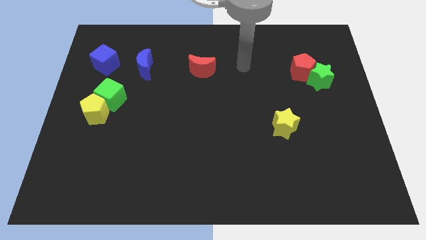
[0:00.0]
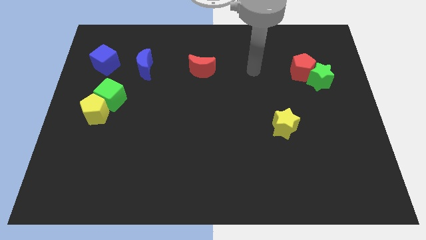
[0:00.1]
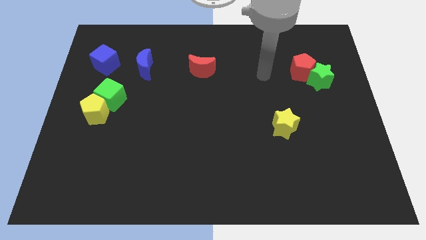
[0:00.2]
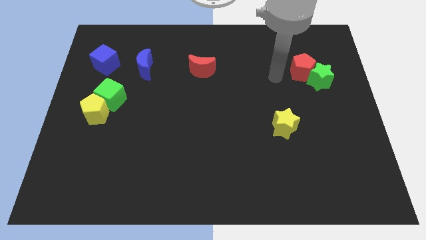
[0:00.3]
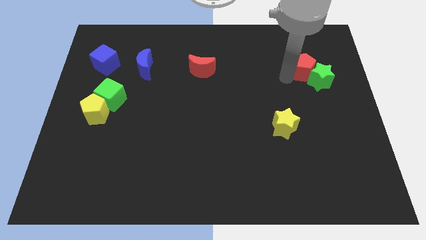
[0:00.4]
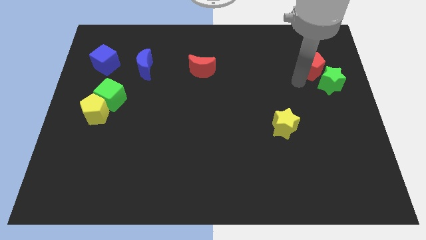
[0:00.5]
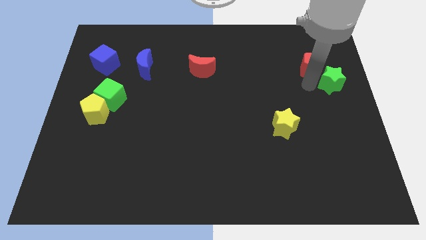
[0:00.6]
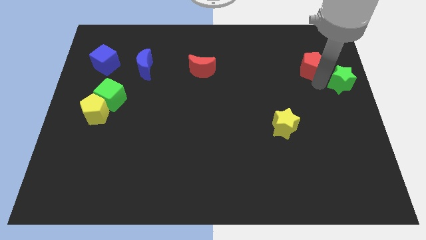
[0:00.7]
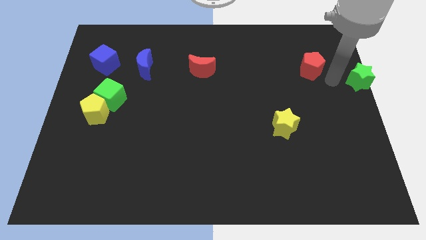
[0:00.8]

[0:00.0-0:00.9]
separate the red pentagon from the green star

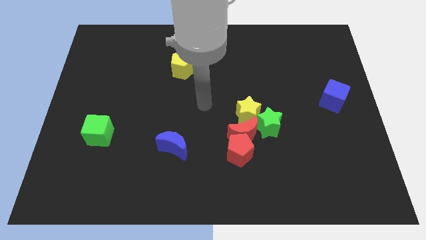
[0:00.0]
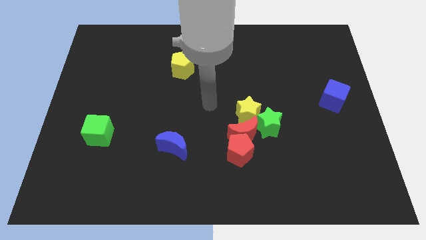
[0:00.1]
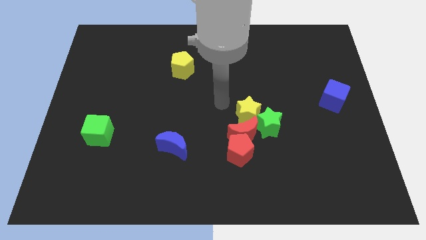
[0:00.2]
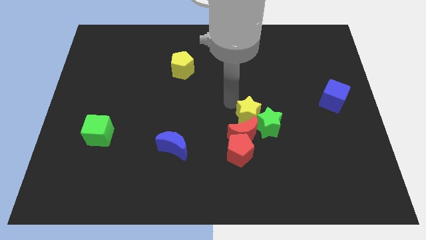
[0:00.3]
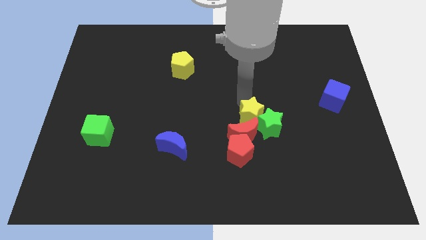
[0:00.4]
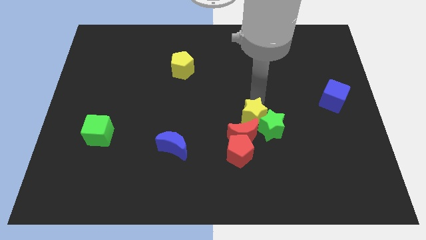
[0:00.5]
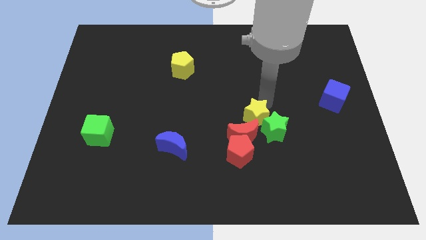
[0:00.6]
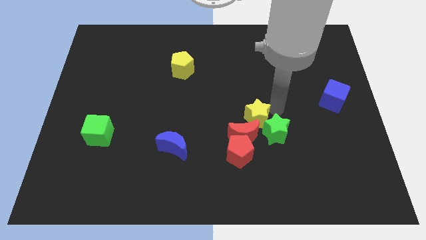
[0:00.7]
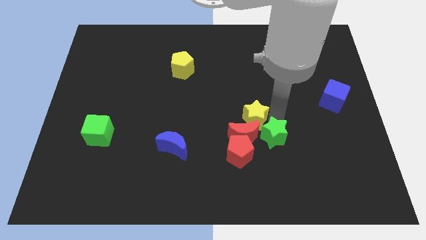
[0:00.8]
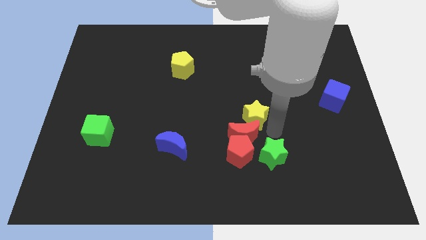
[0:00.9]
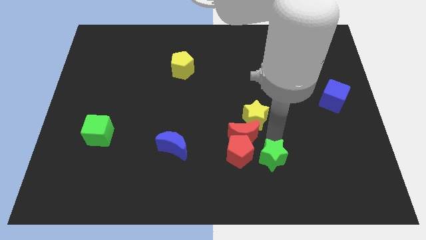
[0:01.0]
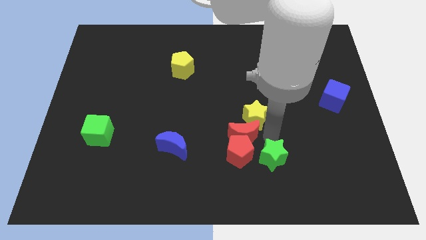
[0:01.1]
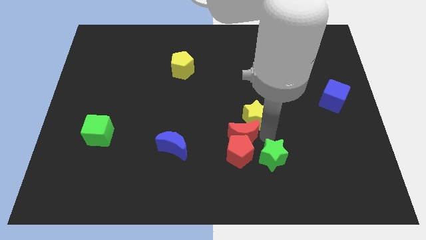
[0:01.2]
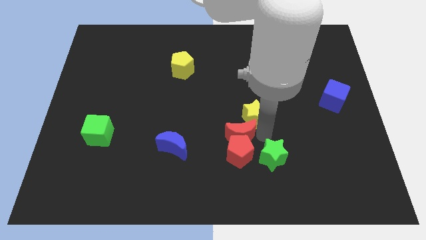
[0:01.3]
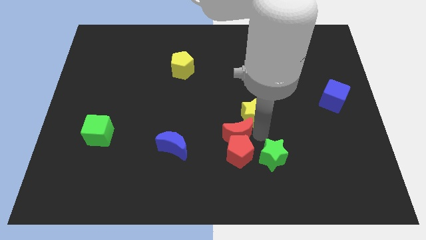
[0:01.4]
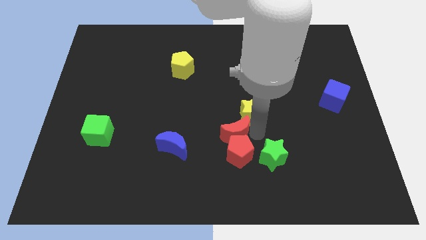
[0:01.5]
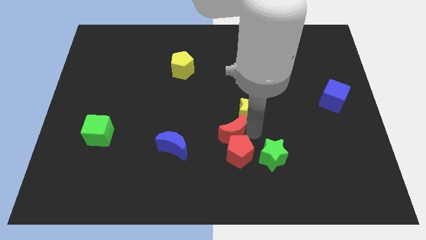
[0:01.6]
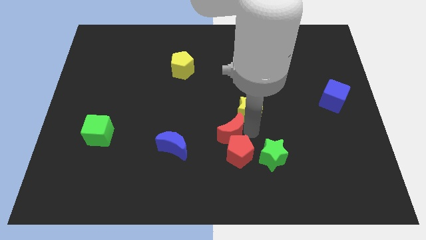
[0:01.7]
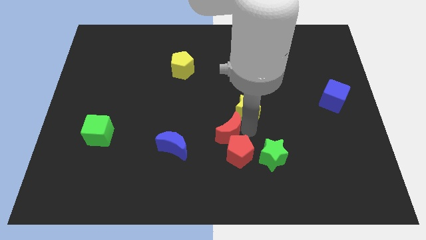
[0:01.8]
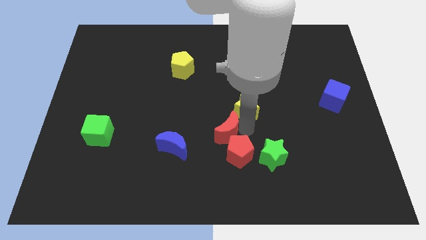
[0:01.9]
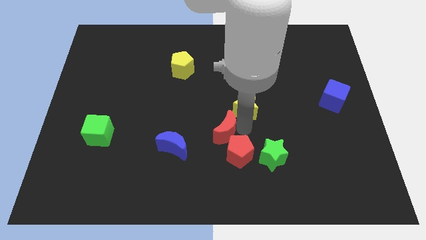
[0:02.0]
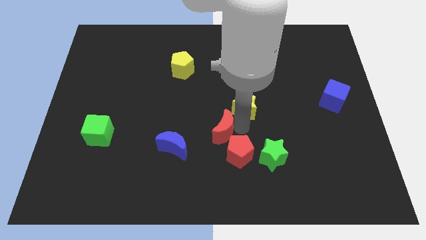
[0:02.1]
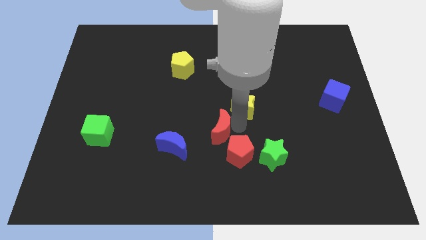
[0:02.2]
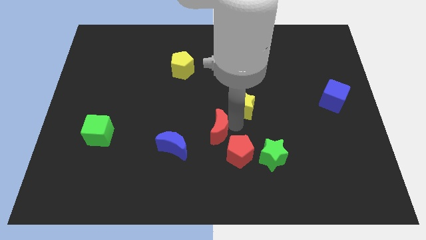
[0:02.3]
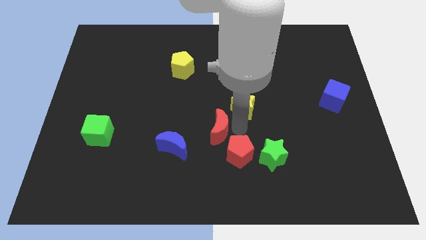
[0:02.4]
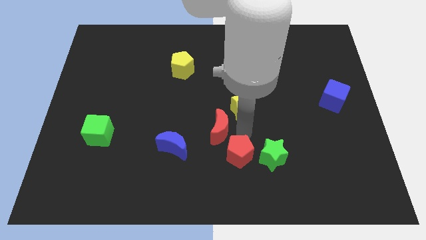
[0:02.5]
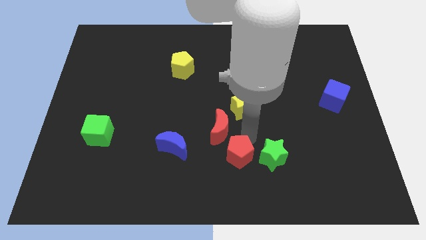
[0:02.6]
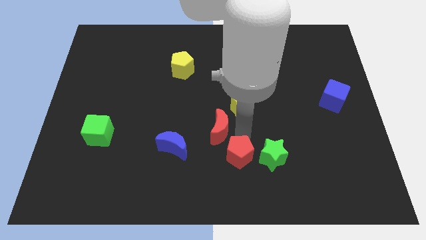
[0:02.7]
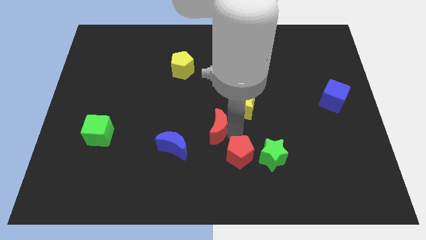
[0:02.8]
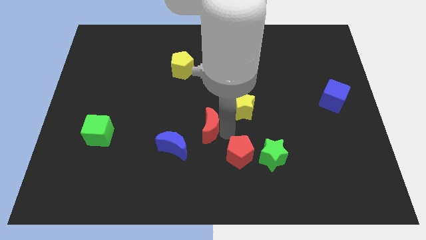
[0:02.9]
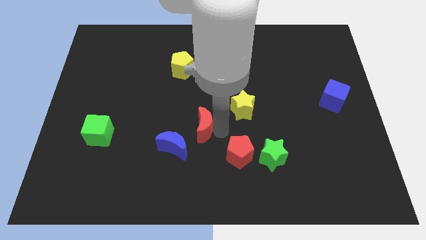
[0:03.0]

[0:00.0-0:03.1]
separate the red moon from the red pentagon, yellow star, and green star

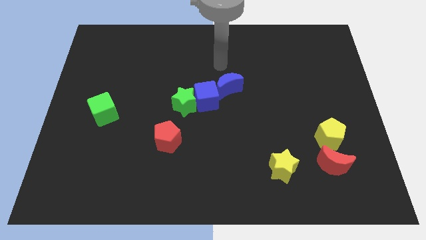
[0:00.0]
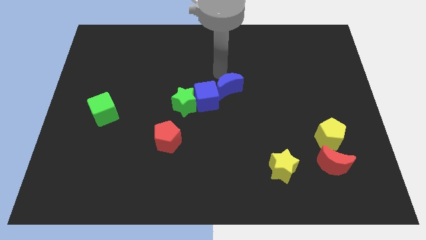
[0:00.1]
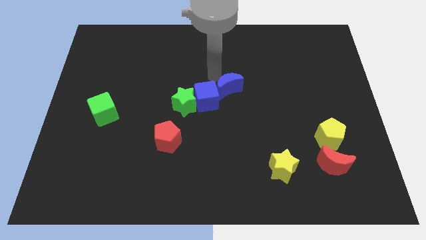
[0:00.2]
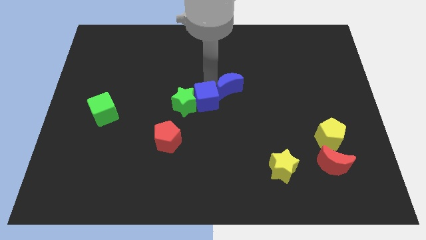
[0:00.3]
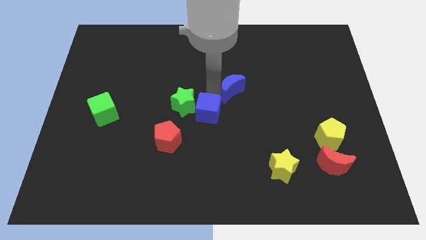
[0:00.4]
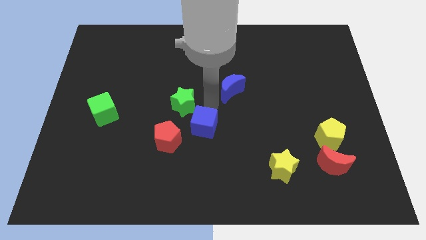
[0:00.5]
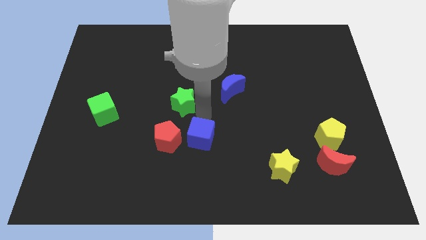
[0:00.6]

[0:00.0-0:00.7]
separate the green star from the blue cube

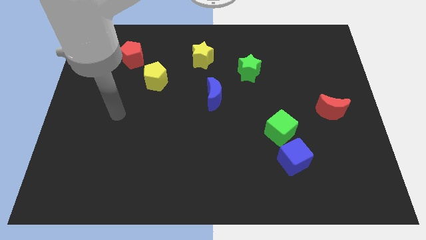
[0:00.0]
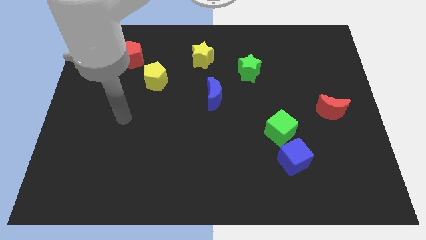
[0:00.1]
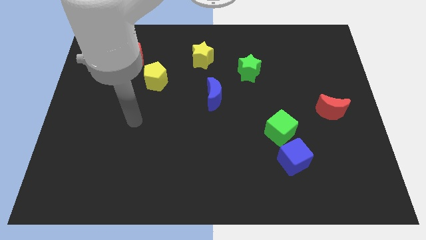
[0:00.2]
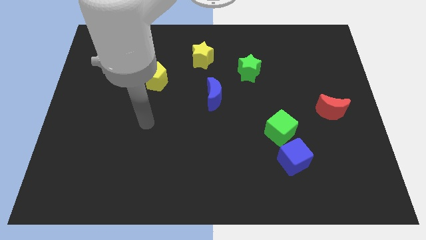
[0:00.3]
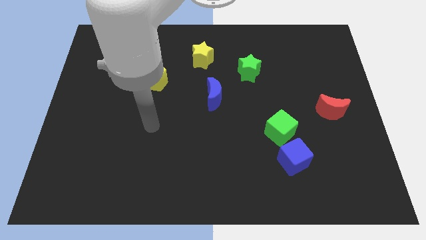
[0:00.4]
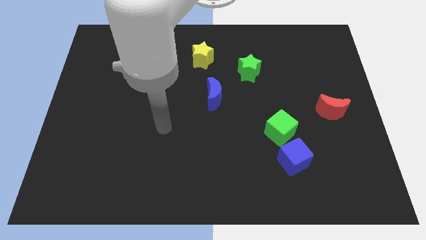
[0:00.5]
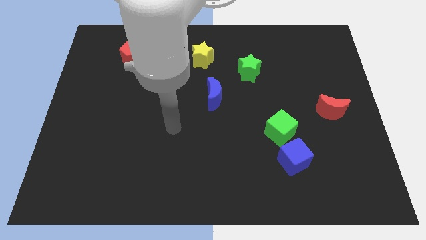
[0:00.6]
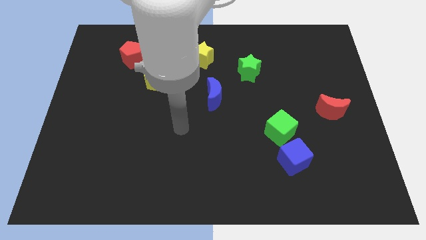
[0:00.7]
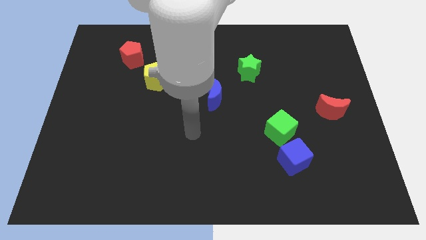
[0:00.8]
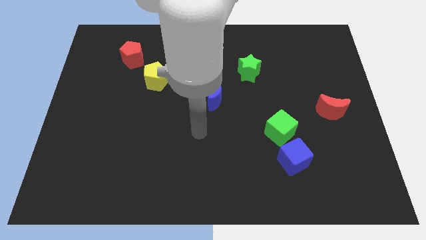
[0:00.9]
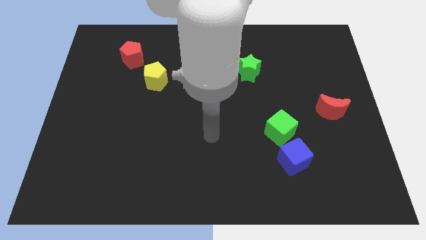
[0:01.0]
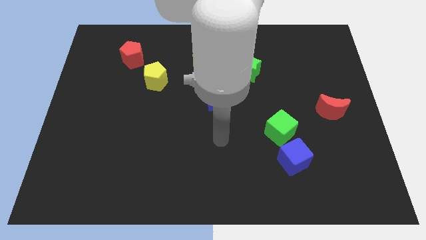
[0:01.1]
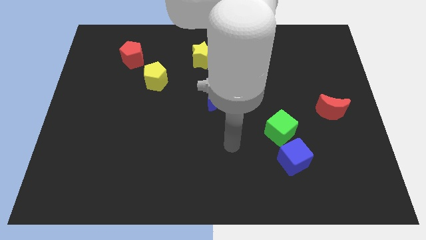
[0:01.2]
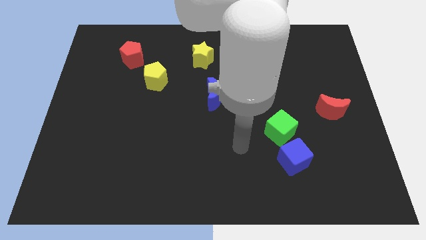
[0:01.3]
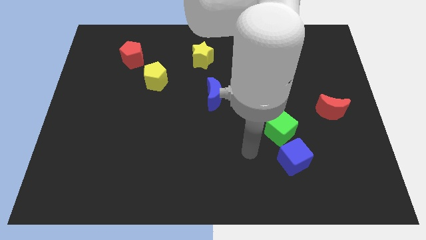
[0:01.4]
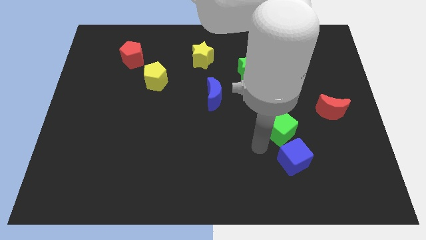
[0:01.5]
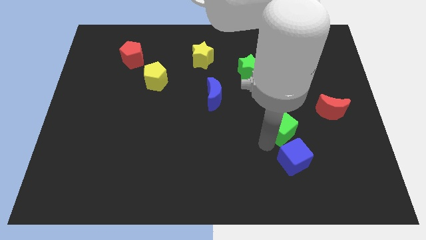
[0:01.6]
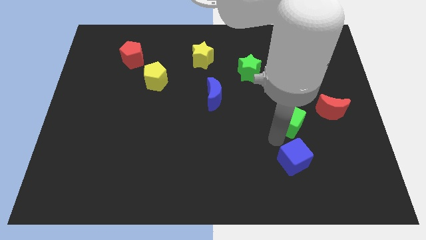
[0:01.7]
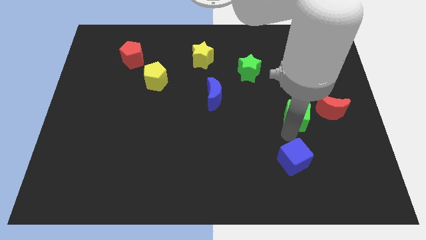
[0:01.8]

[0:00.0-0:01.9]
separate the blue cube from the green cube

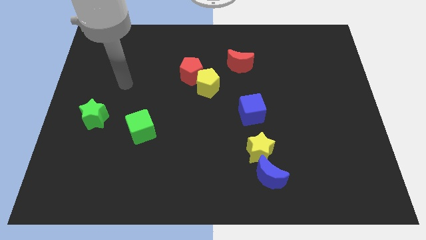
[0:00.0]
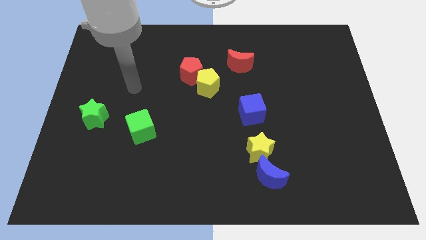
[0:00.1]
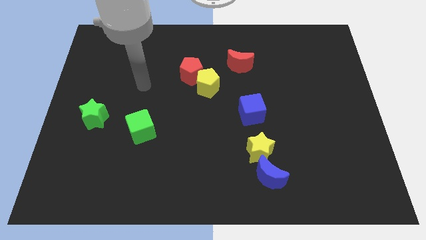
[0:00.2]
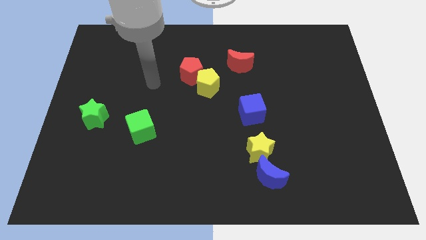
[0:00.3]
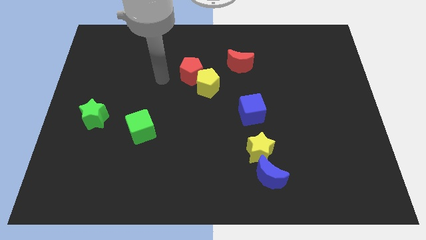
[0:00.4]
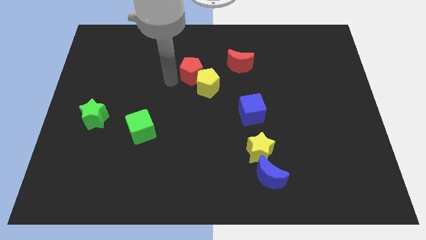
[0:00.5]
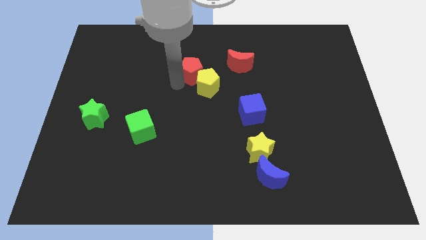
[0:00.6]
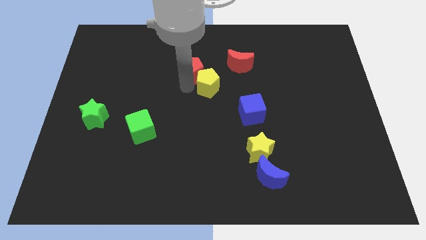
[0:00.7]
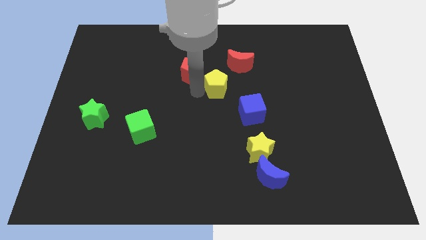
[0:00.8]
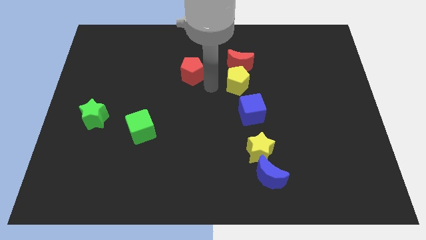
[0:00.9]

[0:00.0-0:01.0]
move the red pentagon away from the yellow pentagon

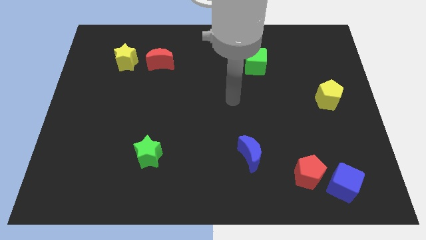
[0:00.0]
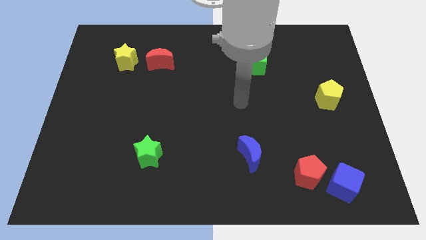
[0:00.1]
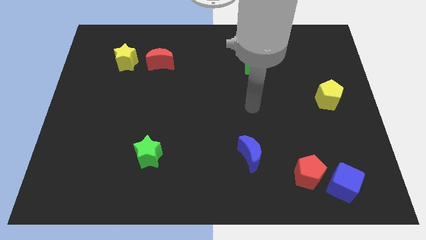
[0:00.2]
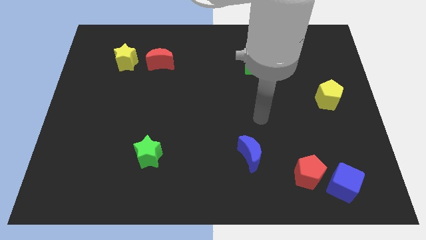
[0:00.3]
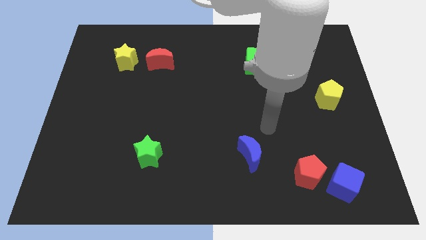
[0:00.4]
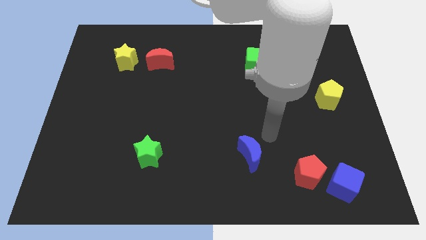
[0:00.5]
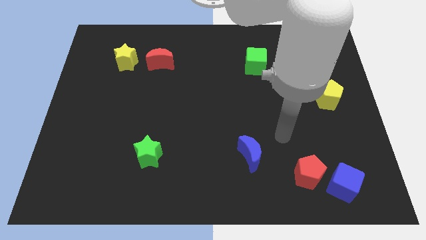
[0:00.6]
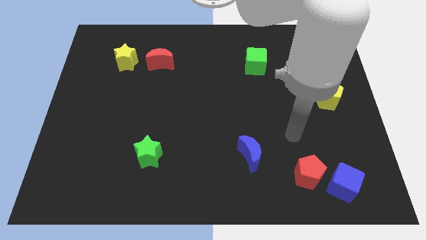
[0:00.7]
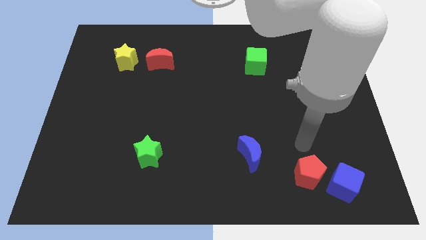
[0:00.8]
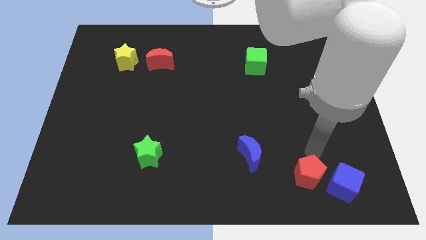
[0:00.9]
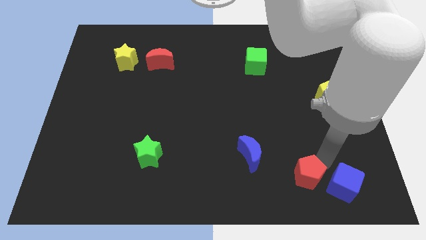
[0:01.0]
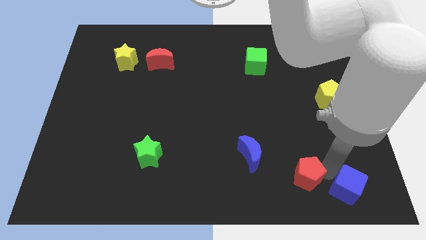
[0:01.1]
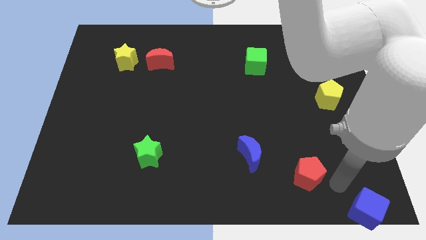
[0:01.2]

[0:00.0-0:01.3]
move the red pentagon away from the blue cube

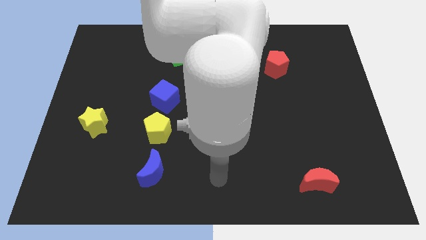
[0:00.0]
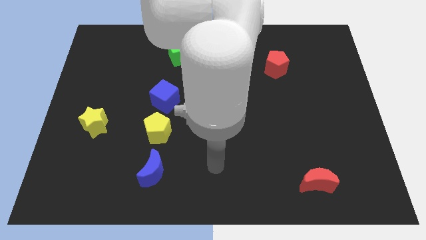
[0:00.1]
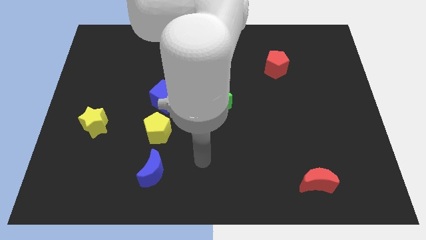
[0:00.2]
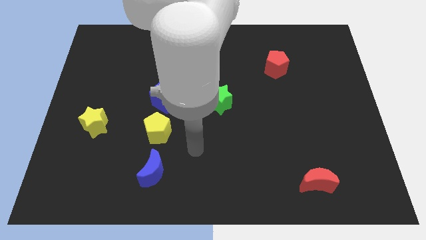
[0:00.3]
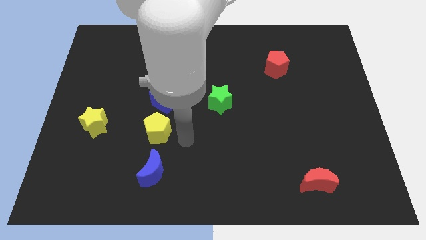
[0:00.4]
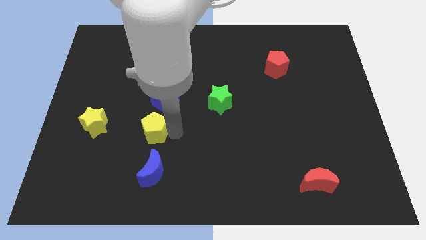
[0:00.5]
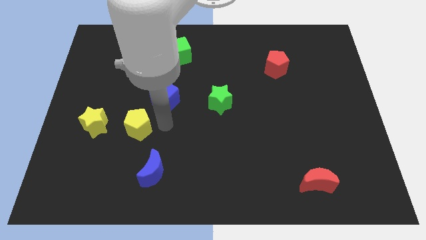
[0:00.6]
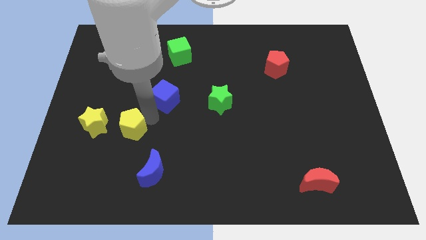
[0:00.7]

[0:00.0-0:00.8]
pull the blue cube apart from the yellow pentagon
